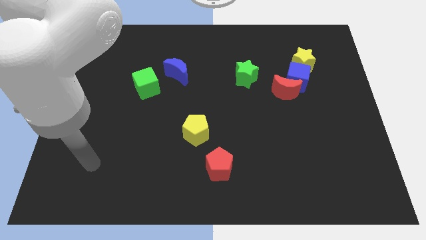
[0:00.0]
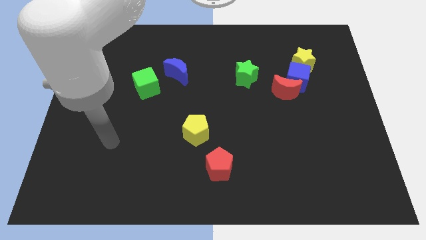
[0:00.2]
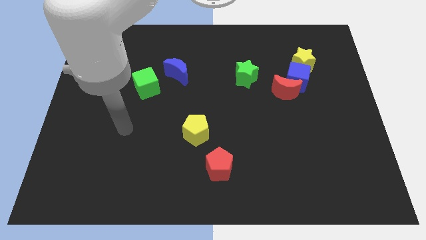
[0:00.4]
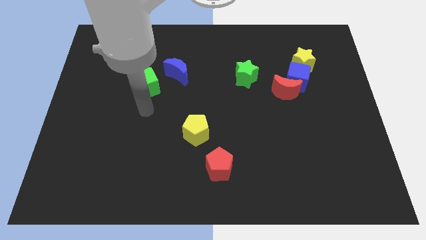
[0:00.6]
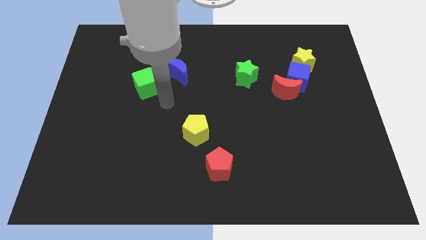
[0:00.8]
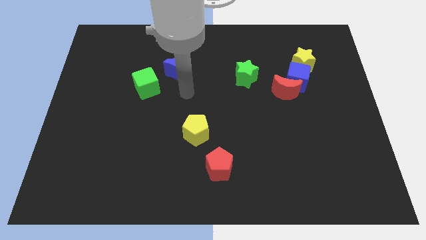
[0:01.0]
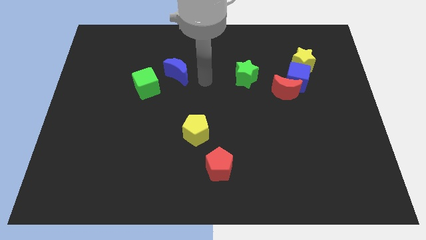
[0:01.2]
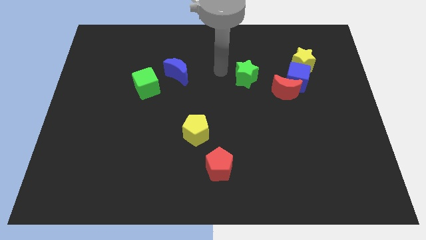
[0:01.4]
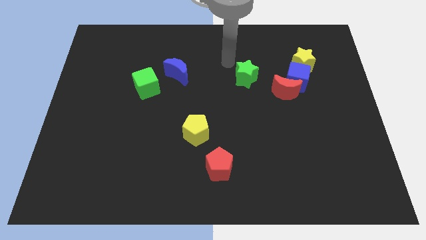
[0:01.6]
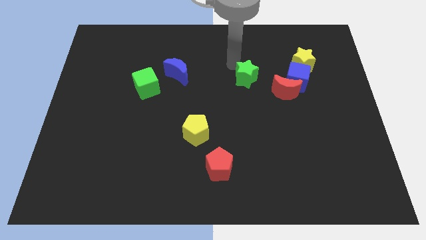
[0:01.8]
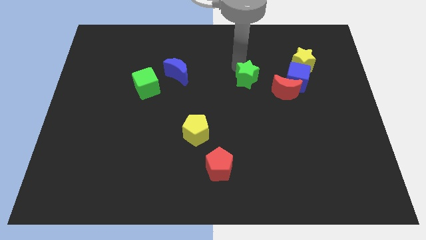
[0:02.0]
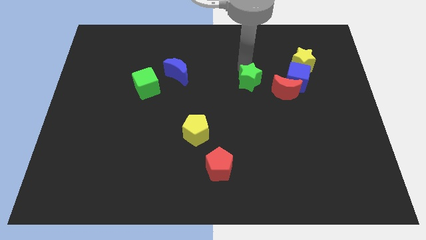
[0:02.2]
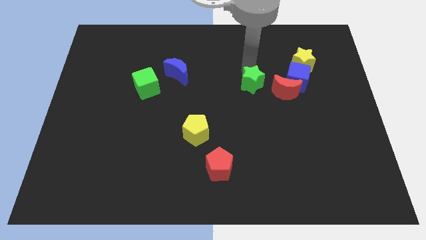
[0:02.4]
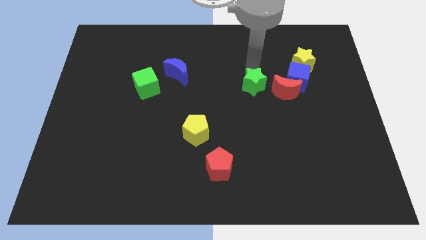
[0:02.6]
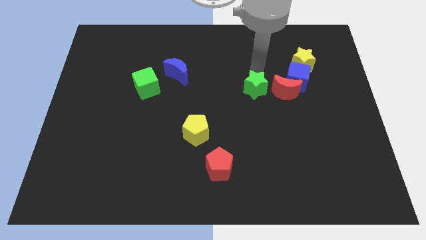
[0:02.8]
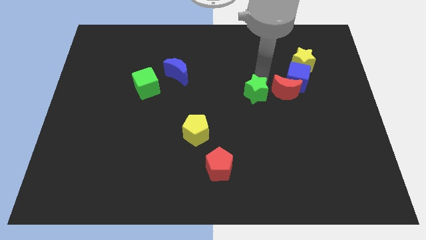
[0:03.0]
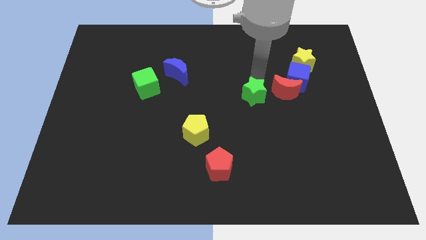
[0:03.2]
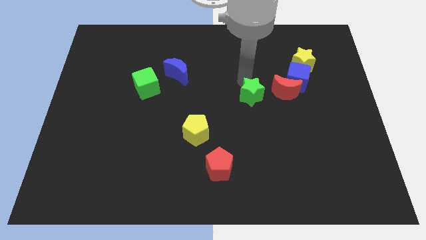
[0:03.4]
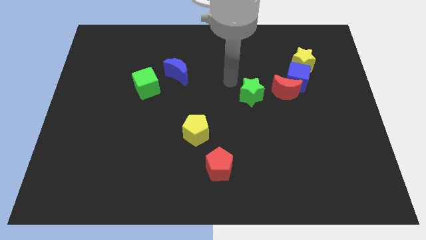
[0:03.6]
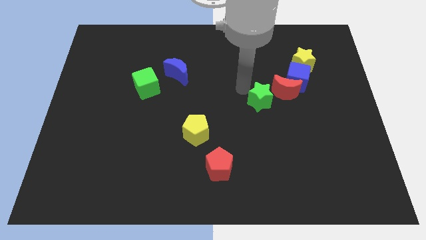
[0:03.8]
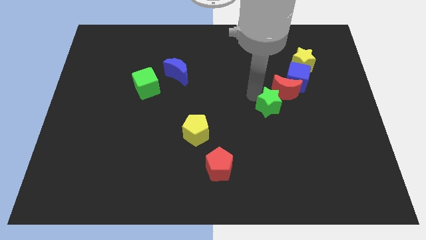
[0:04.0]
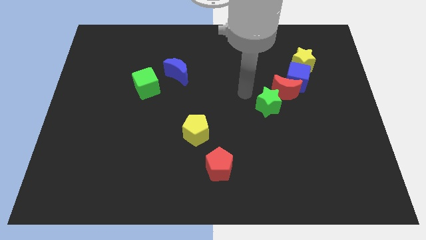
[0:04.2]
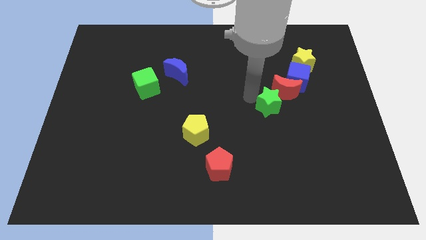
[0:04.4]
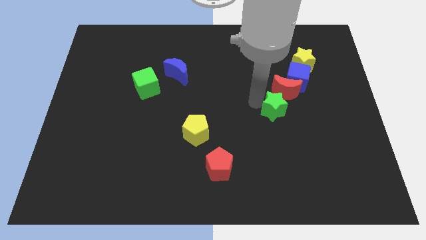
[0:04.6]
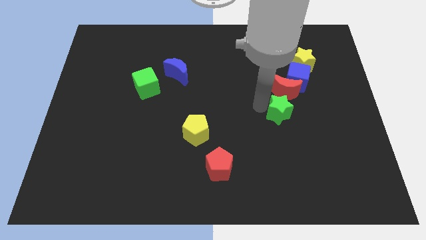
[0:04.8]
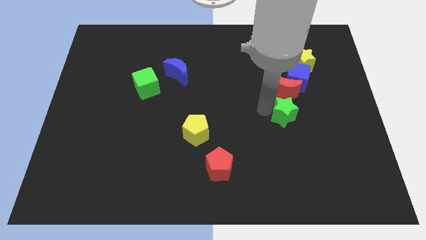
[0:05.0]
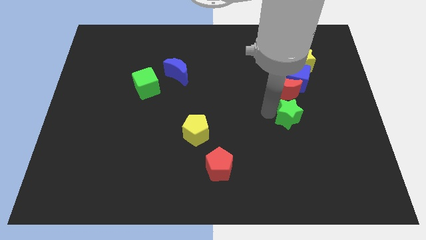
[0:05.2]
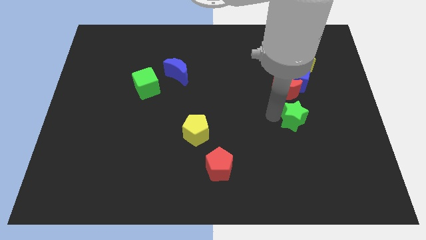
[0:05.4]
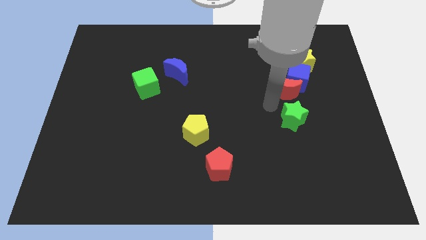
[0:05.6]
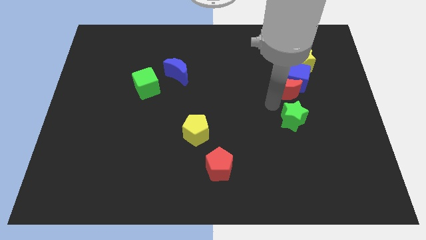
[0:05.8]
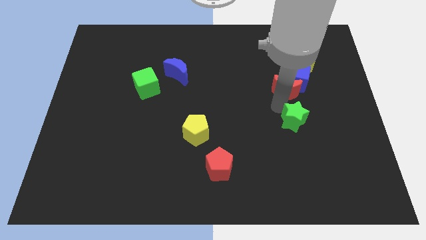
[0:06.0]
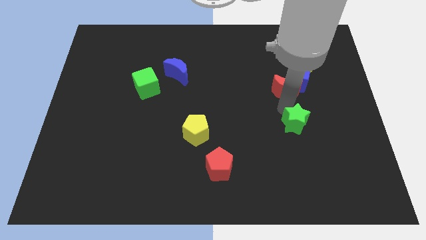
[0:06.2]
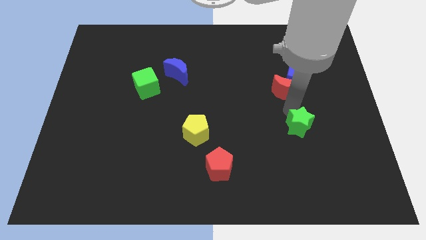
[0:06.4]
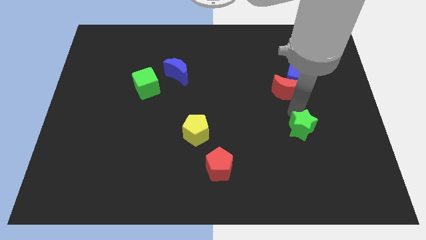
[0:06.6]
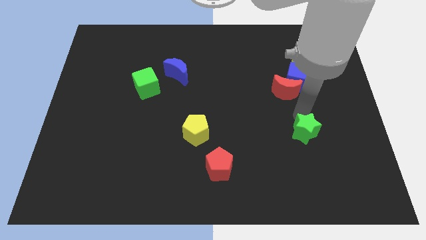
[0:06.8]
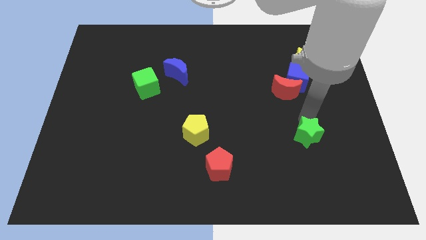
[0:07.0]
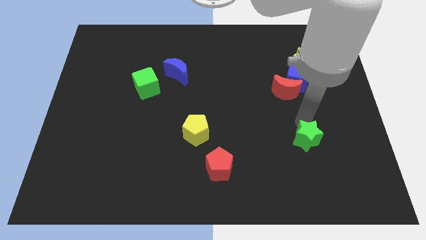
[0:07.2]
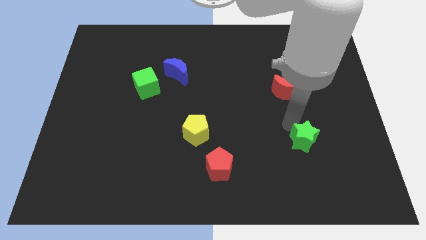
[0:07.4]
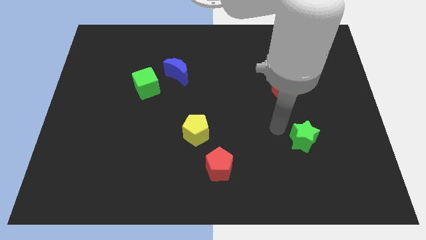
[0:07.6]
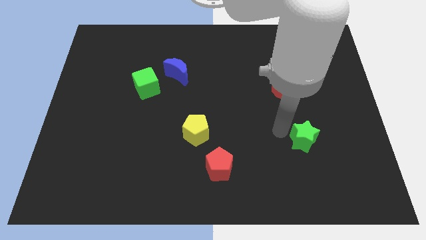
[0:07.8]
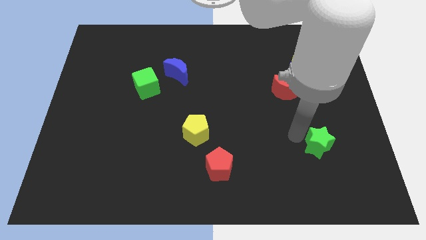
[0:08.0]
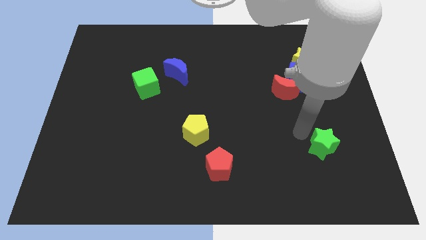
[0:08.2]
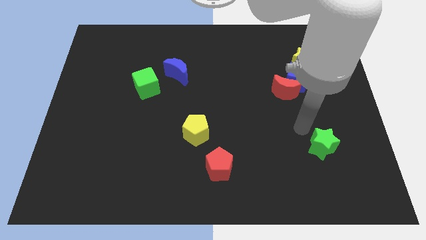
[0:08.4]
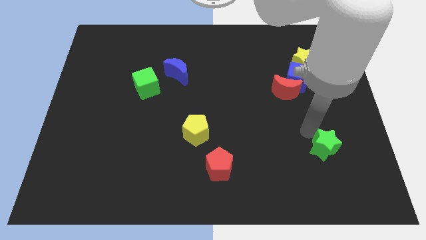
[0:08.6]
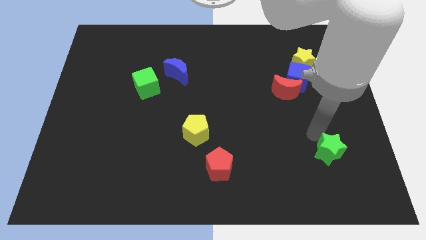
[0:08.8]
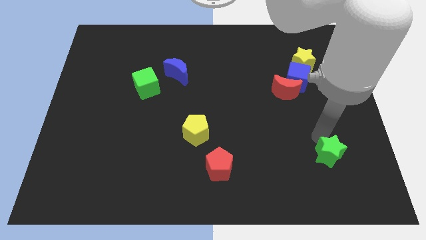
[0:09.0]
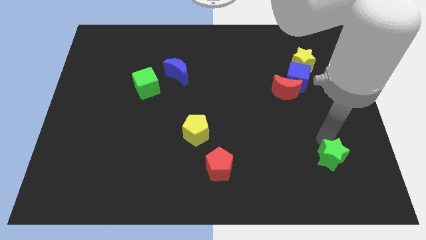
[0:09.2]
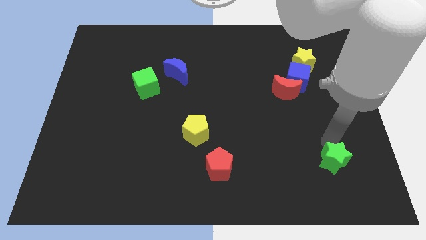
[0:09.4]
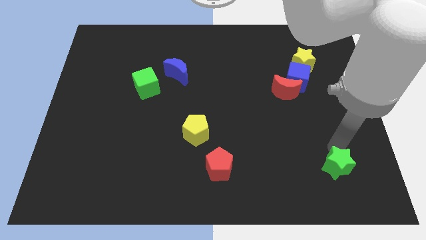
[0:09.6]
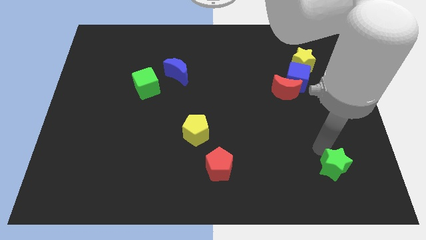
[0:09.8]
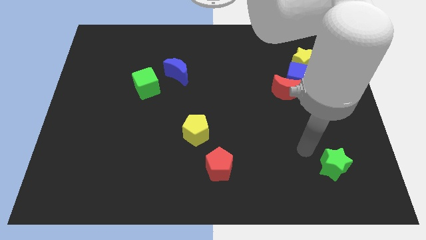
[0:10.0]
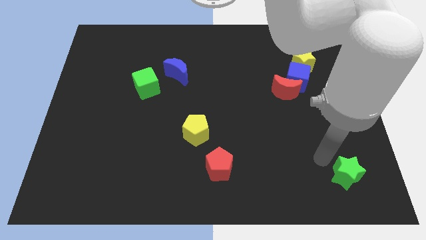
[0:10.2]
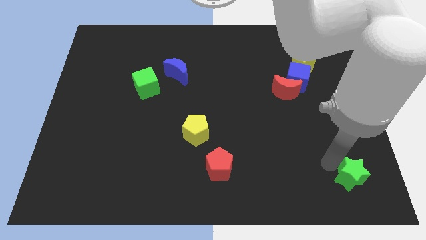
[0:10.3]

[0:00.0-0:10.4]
put the green star to the bottom right

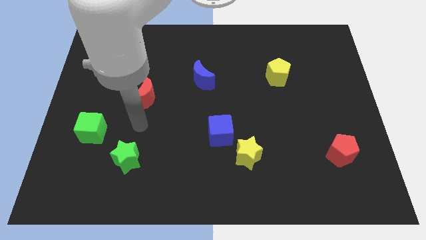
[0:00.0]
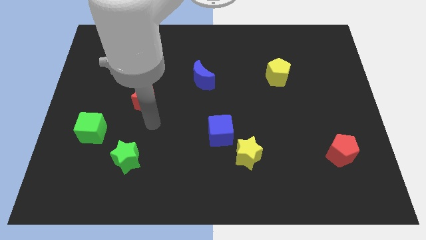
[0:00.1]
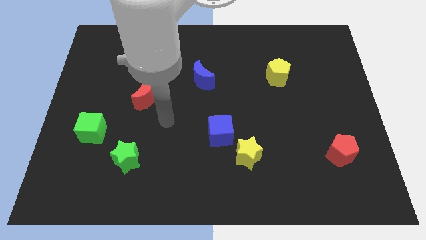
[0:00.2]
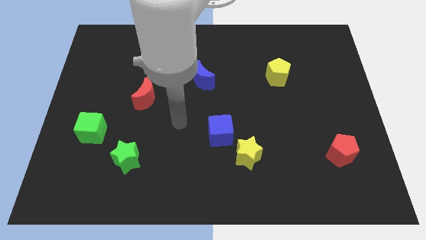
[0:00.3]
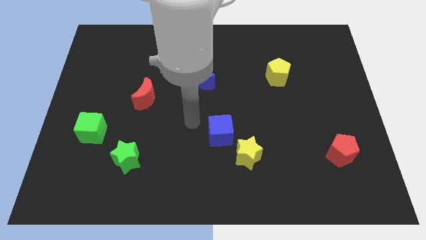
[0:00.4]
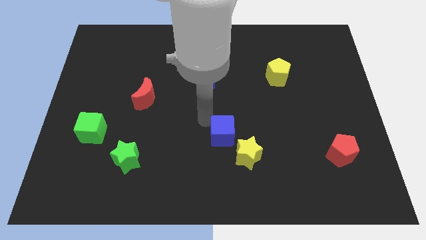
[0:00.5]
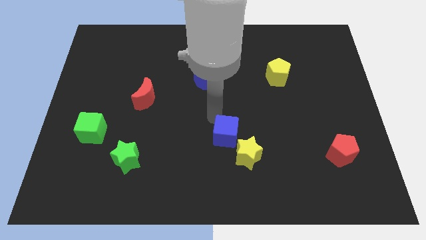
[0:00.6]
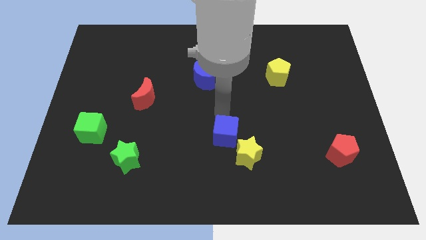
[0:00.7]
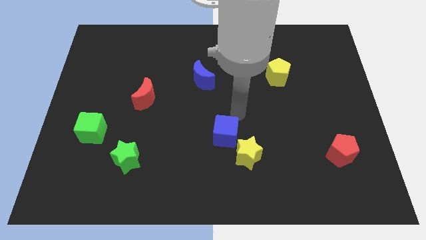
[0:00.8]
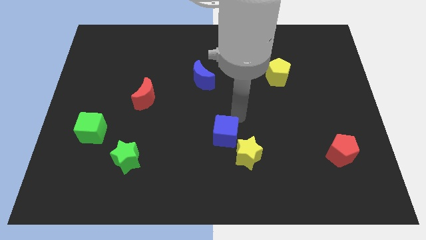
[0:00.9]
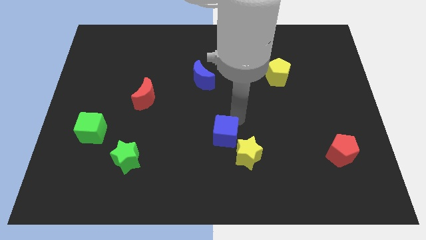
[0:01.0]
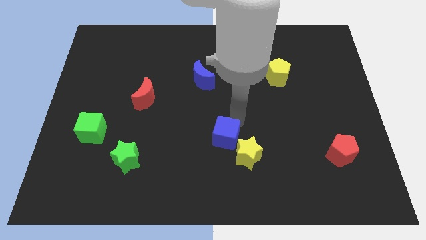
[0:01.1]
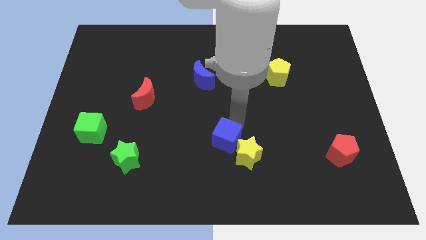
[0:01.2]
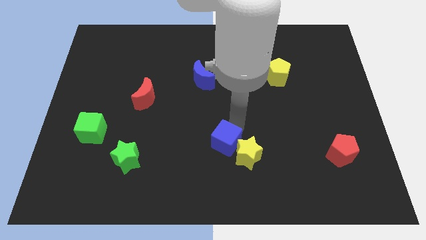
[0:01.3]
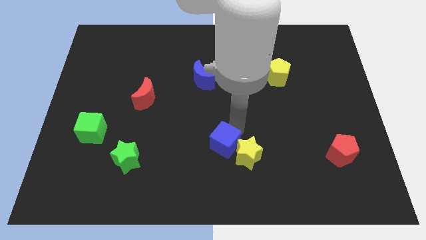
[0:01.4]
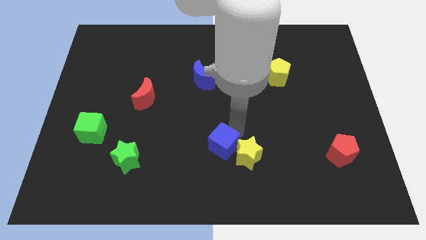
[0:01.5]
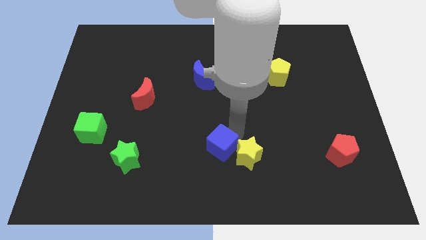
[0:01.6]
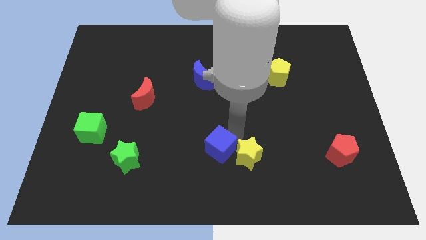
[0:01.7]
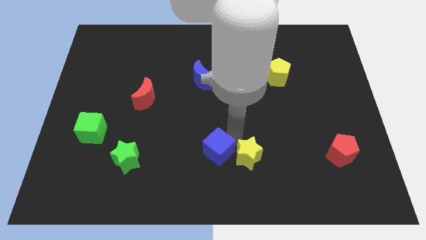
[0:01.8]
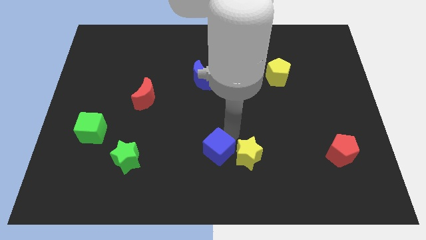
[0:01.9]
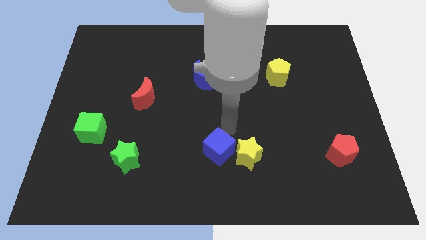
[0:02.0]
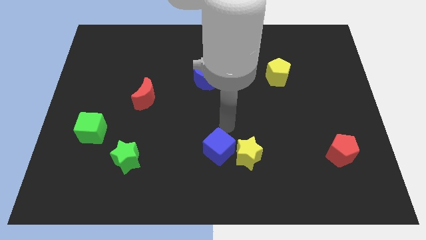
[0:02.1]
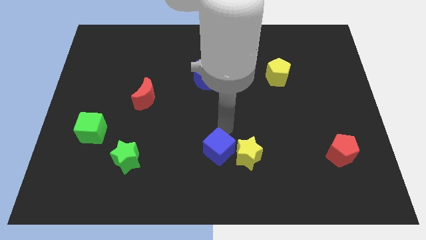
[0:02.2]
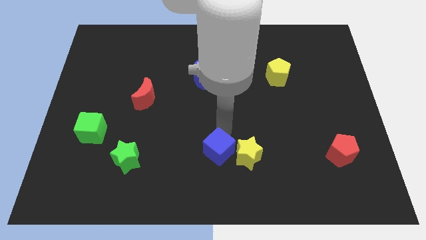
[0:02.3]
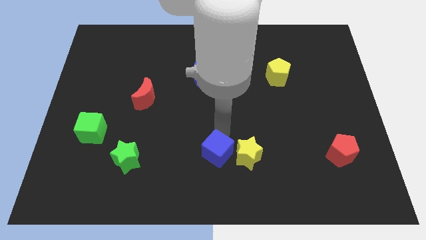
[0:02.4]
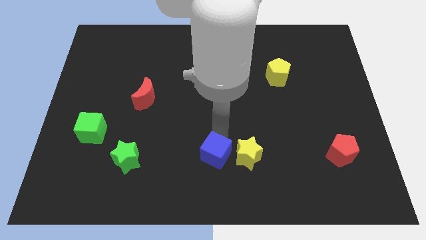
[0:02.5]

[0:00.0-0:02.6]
put the blue cube to the bottom
